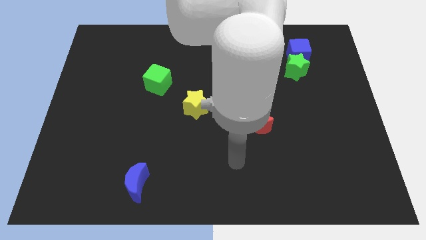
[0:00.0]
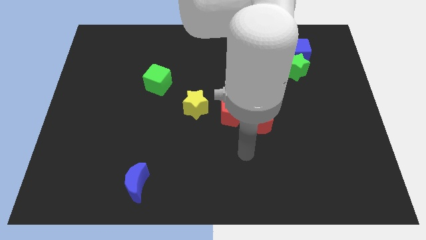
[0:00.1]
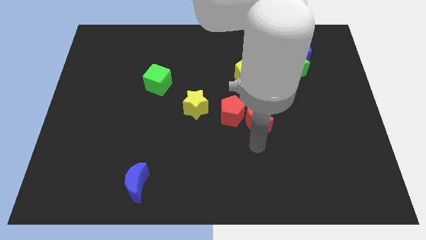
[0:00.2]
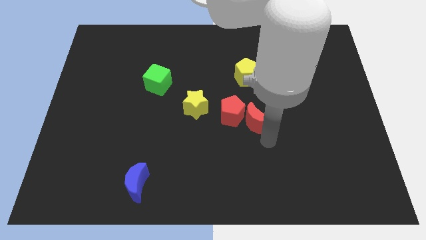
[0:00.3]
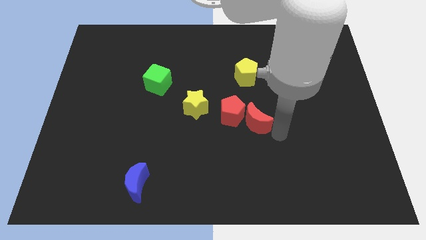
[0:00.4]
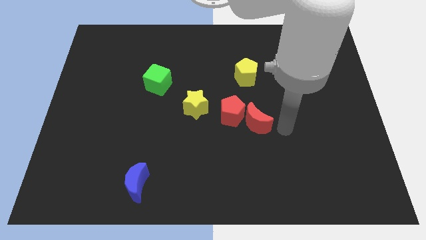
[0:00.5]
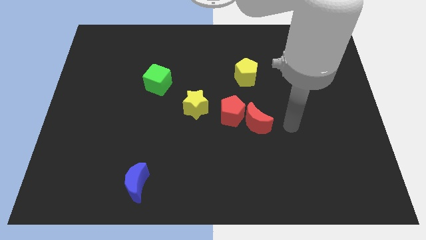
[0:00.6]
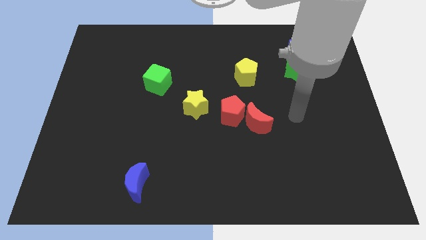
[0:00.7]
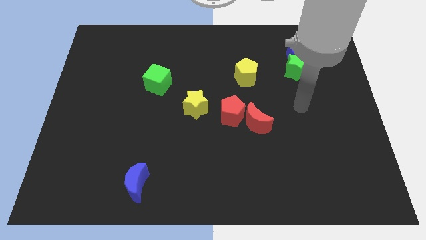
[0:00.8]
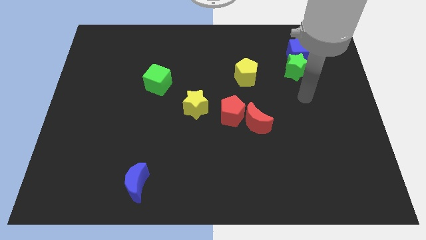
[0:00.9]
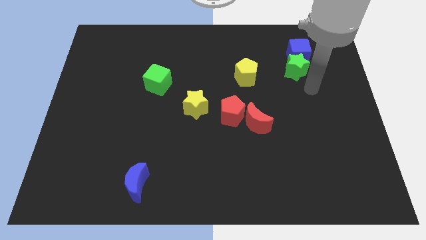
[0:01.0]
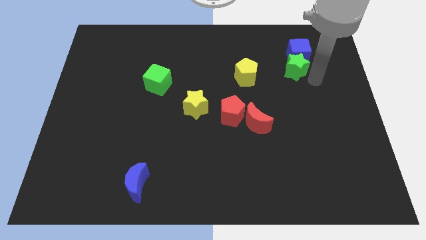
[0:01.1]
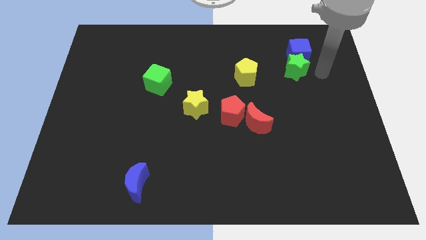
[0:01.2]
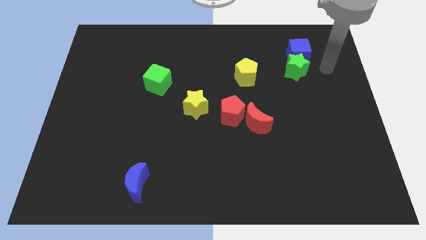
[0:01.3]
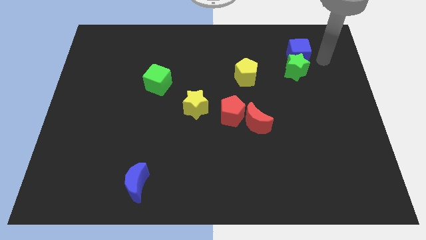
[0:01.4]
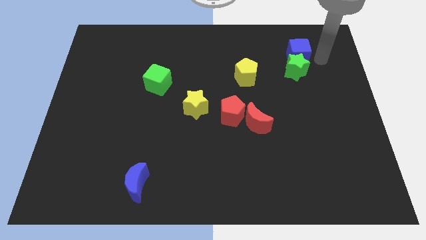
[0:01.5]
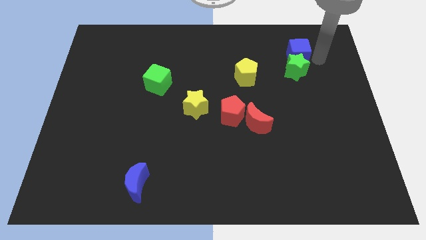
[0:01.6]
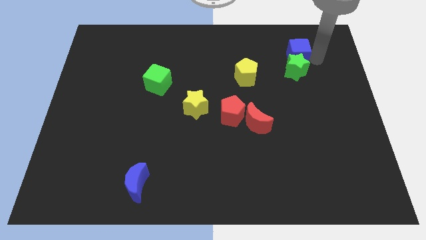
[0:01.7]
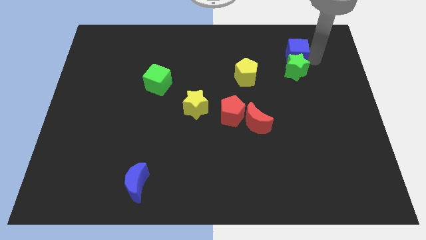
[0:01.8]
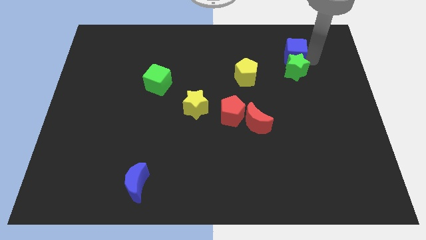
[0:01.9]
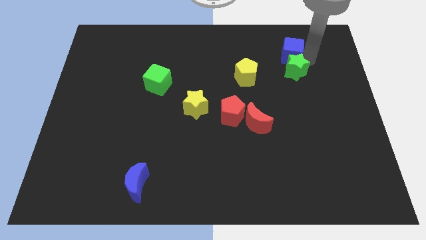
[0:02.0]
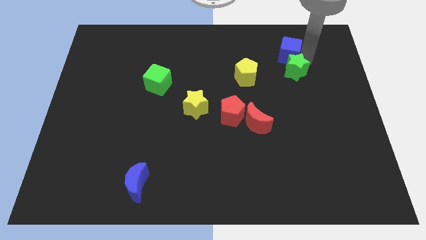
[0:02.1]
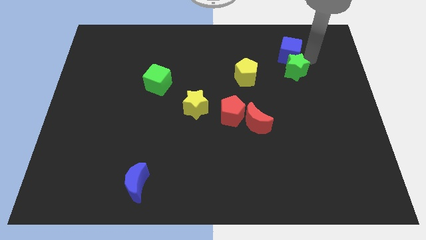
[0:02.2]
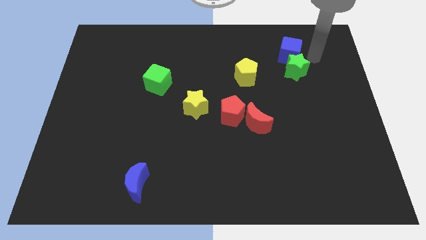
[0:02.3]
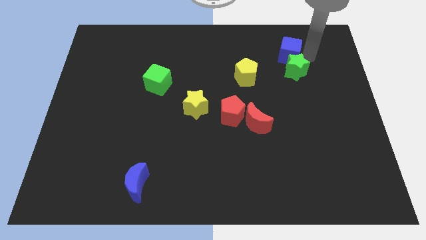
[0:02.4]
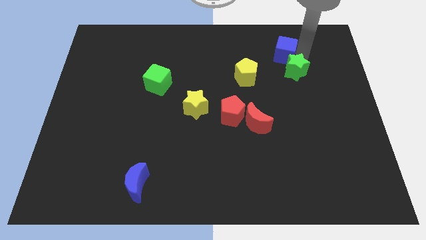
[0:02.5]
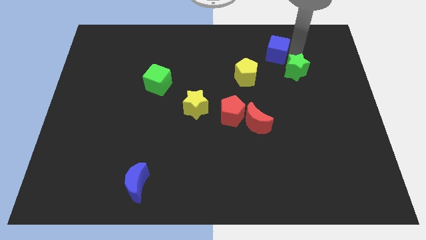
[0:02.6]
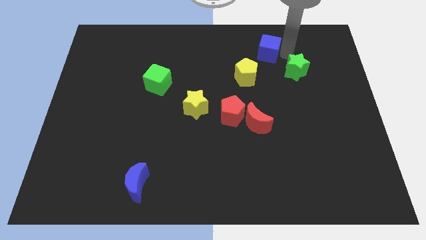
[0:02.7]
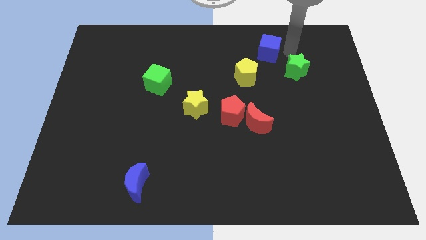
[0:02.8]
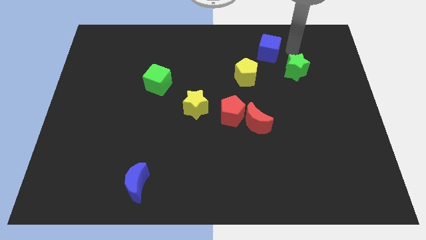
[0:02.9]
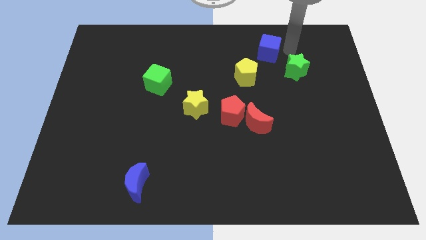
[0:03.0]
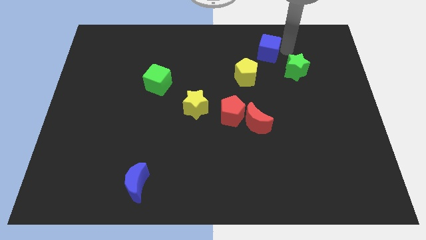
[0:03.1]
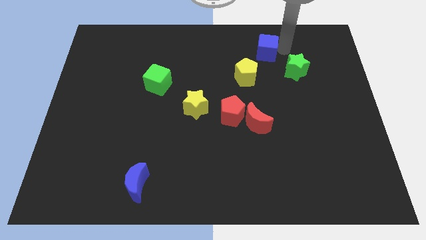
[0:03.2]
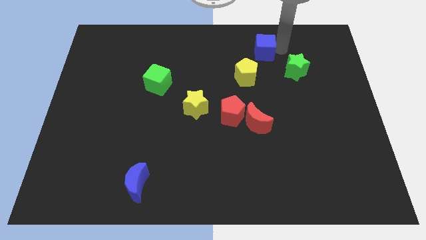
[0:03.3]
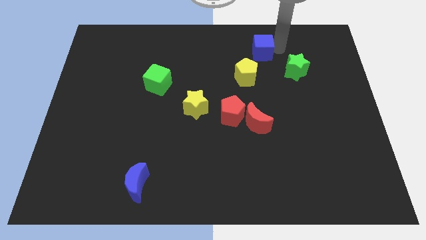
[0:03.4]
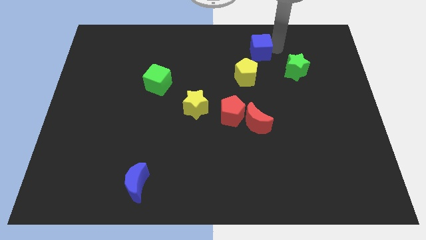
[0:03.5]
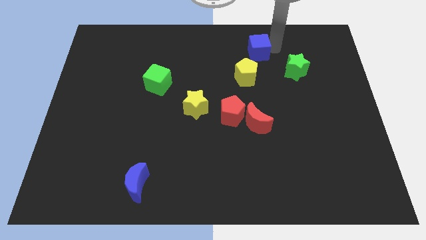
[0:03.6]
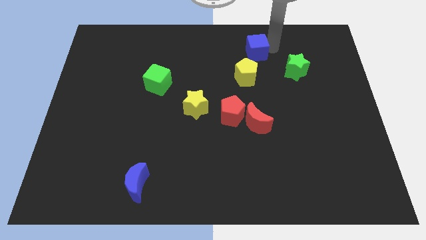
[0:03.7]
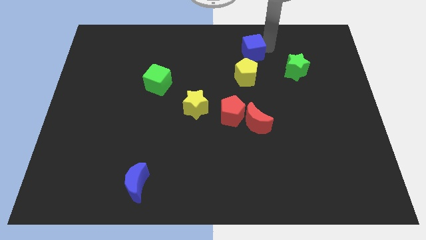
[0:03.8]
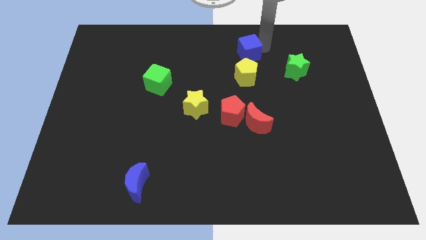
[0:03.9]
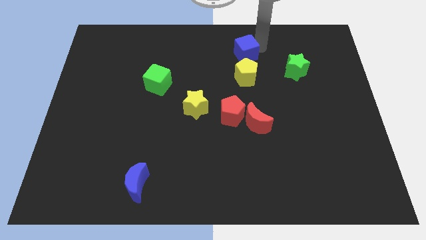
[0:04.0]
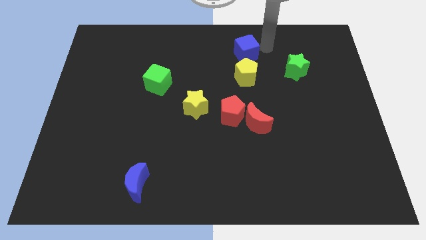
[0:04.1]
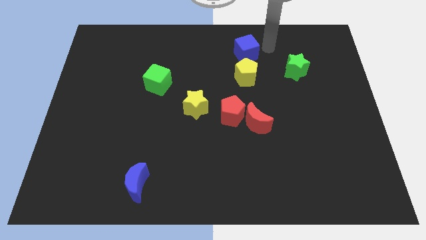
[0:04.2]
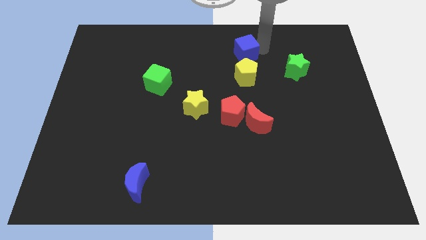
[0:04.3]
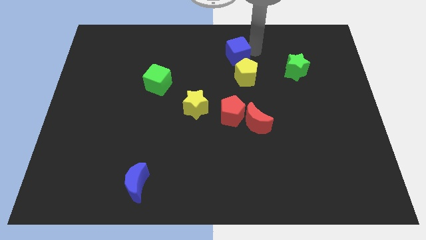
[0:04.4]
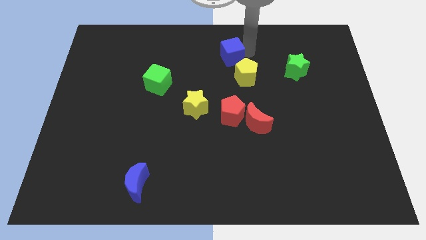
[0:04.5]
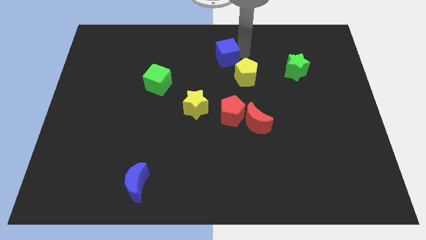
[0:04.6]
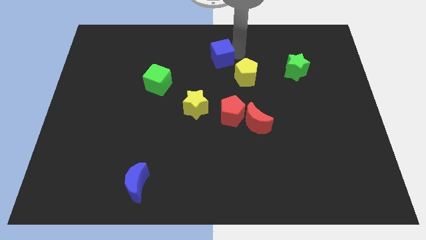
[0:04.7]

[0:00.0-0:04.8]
slide the blue cube left

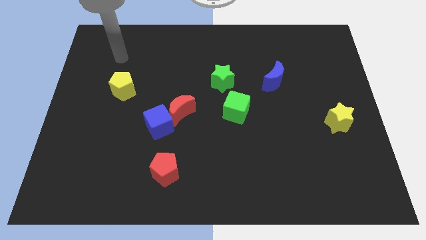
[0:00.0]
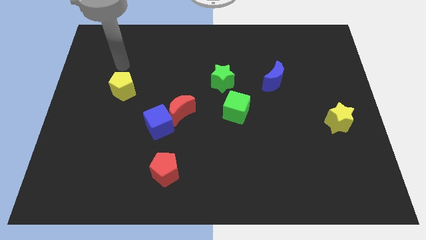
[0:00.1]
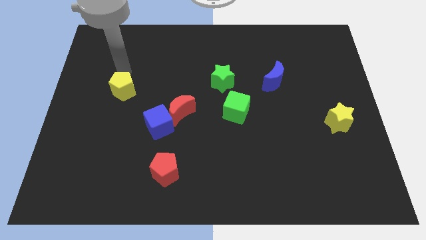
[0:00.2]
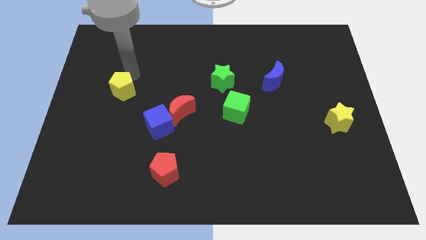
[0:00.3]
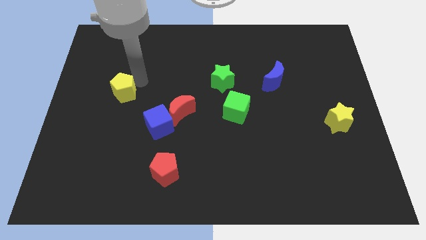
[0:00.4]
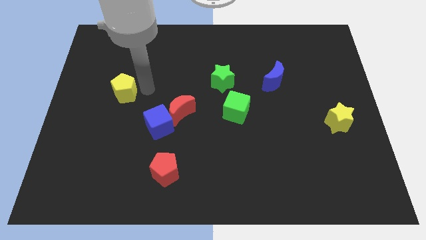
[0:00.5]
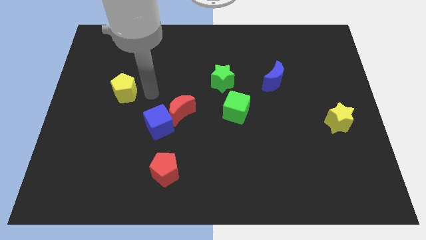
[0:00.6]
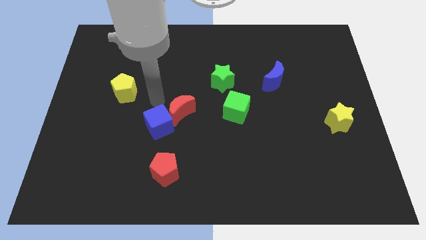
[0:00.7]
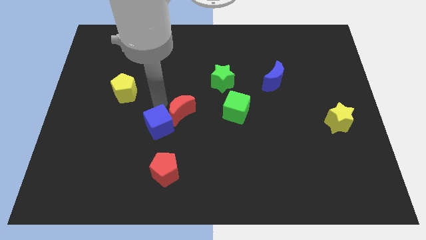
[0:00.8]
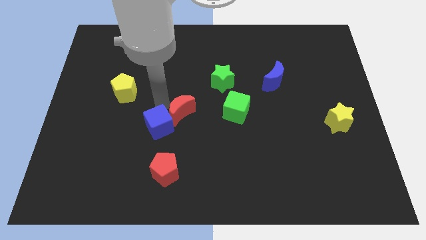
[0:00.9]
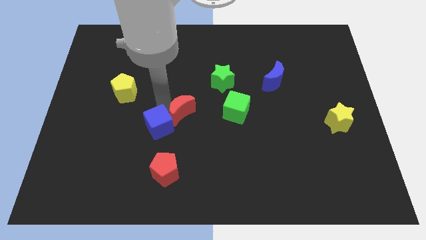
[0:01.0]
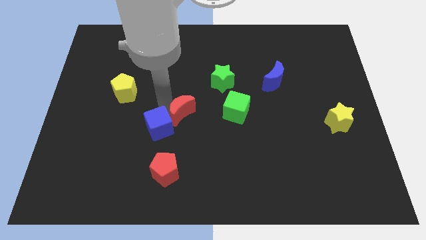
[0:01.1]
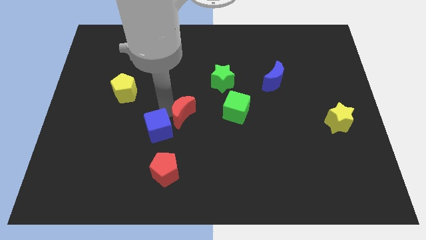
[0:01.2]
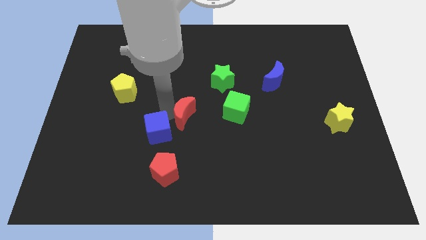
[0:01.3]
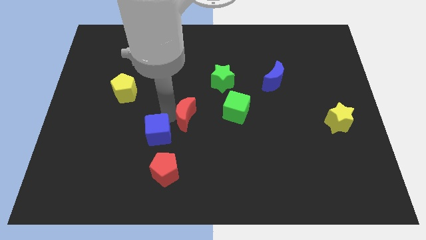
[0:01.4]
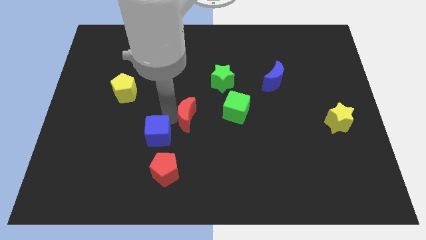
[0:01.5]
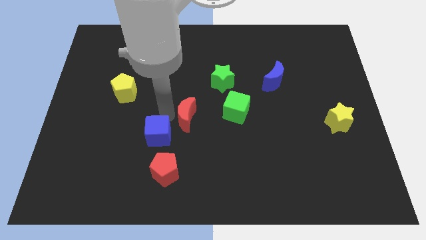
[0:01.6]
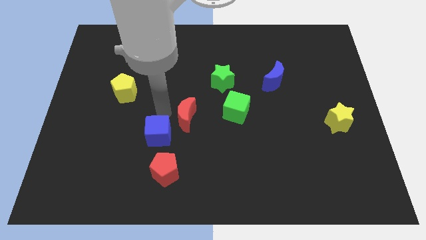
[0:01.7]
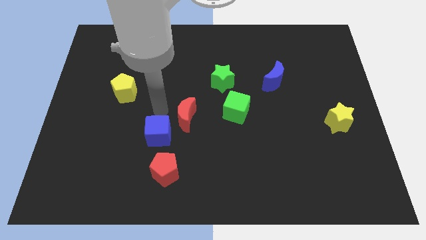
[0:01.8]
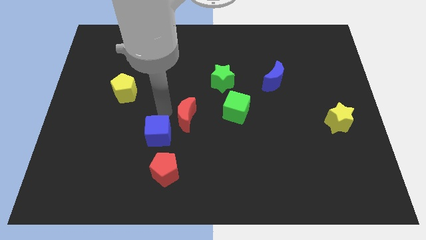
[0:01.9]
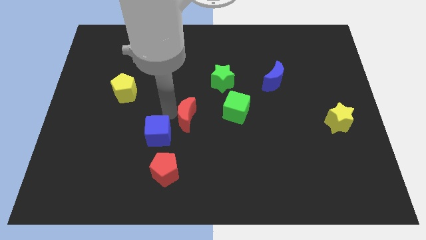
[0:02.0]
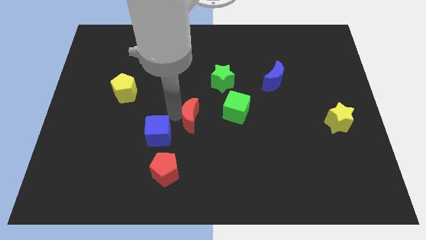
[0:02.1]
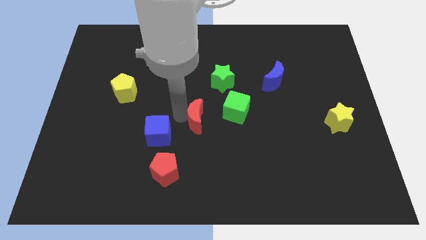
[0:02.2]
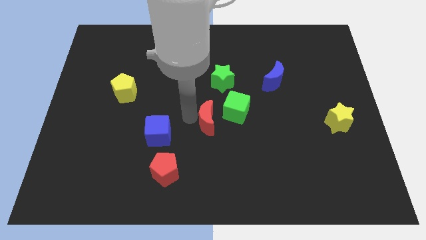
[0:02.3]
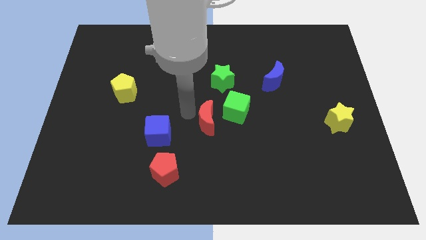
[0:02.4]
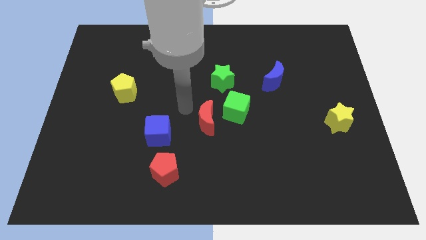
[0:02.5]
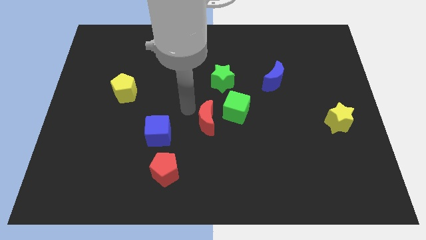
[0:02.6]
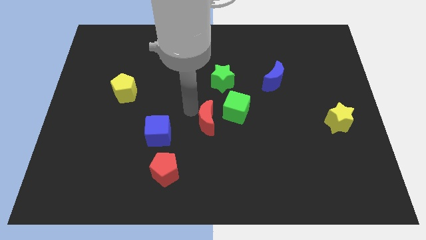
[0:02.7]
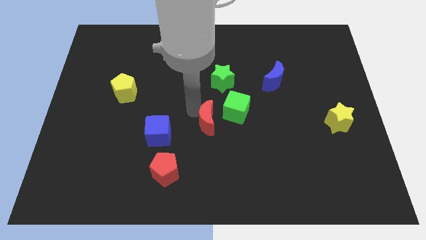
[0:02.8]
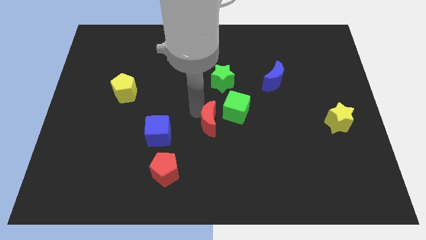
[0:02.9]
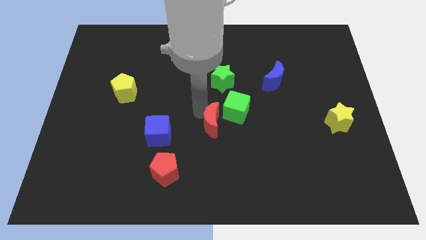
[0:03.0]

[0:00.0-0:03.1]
slide the red moon diagonally downwards and right a little bit
